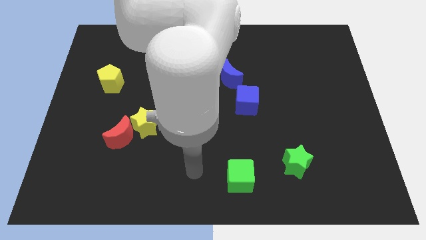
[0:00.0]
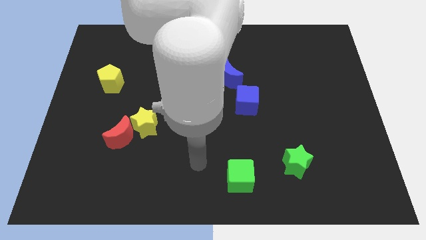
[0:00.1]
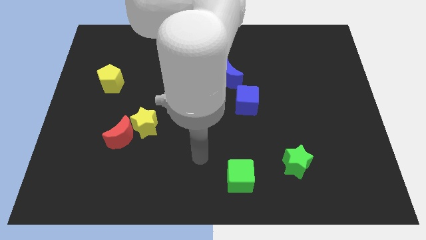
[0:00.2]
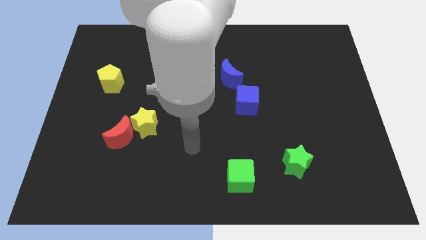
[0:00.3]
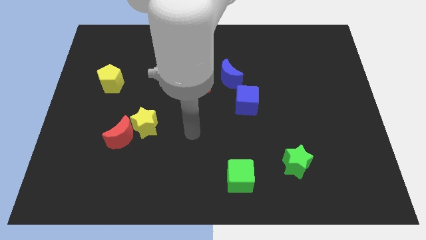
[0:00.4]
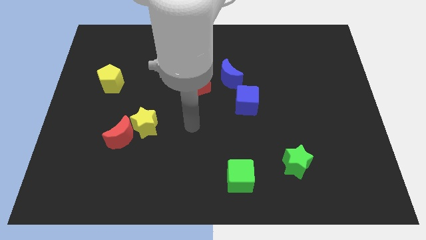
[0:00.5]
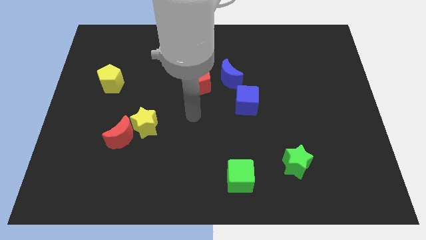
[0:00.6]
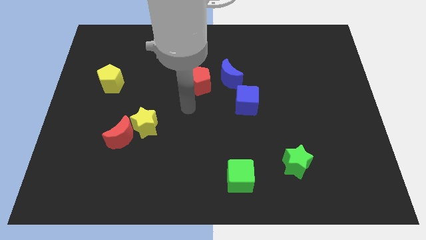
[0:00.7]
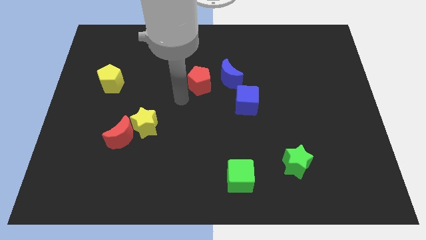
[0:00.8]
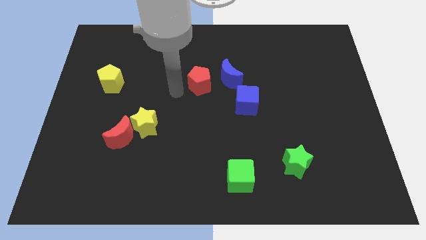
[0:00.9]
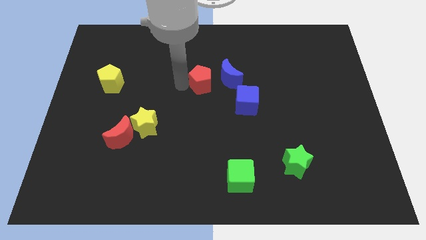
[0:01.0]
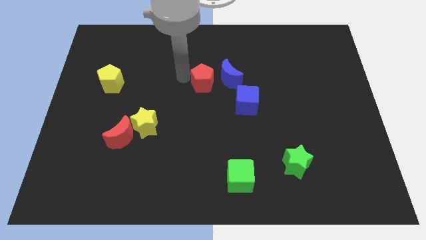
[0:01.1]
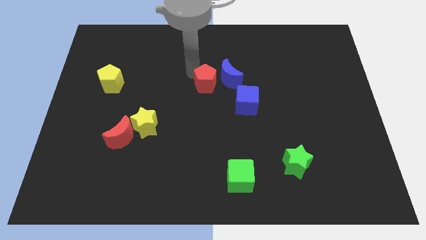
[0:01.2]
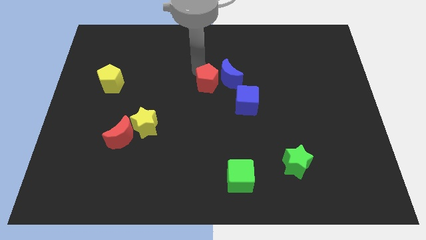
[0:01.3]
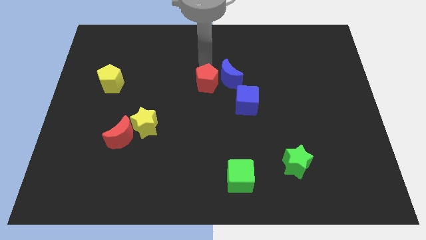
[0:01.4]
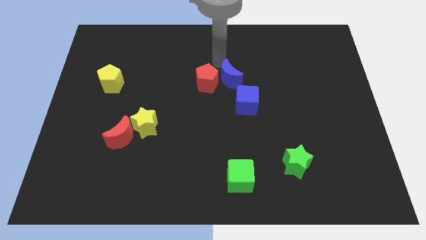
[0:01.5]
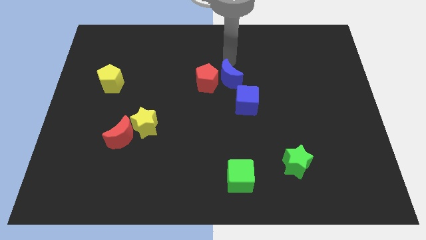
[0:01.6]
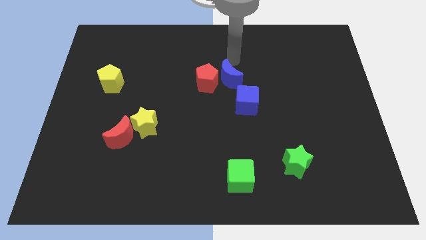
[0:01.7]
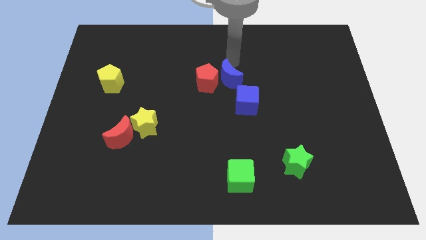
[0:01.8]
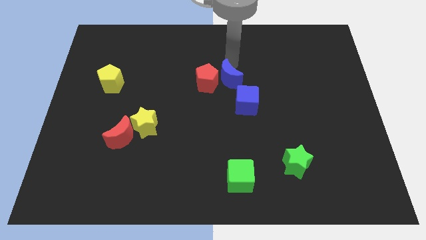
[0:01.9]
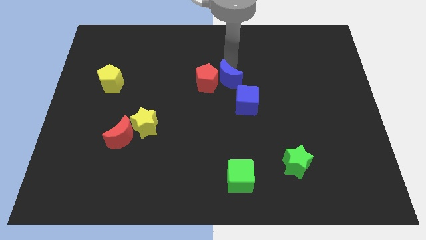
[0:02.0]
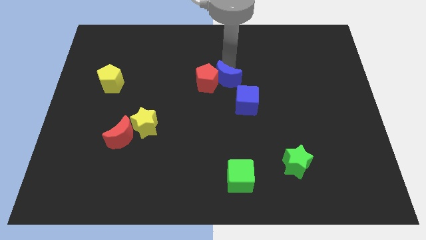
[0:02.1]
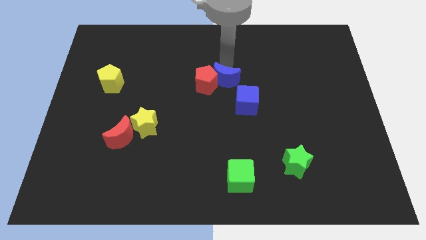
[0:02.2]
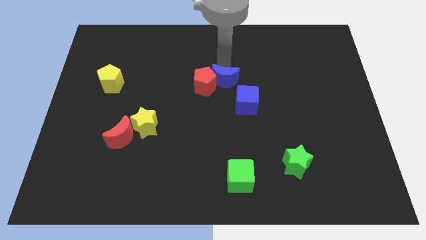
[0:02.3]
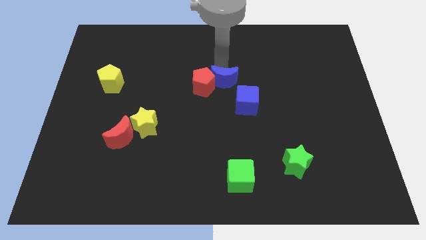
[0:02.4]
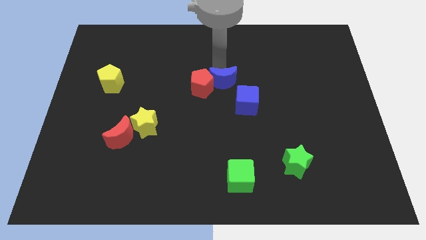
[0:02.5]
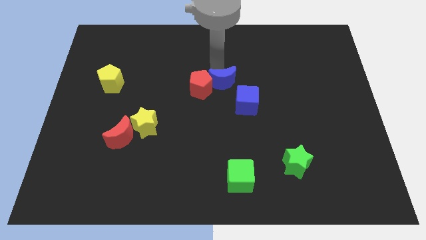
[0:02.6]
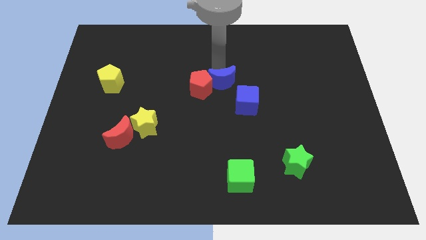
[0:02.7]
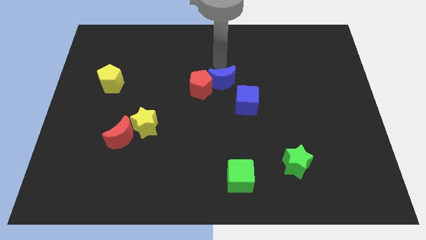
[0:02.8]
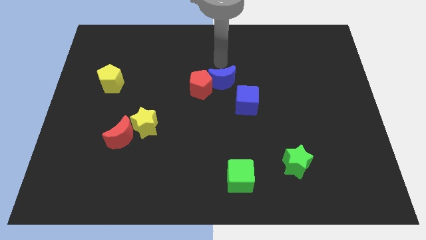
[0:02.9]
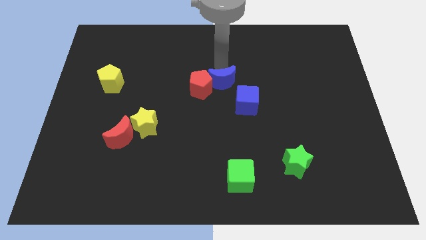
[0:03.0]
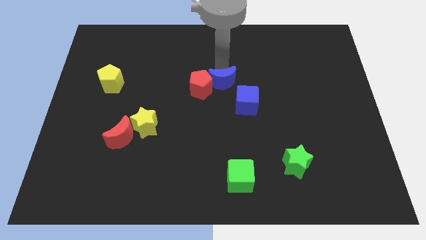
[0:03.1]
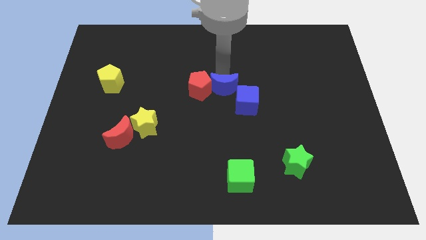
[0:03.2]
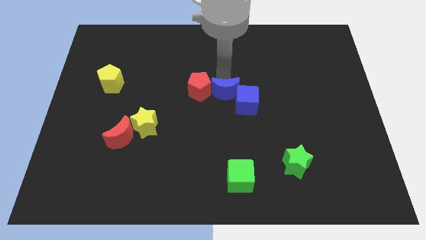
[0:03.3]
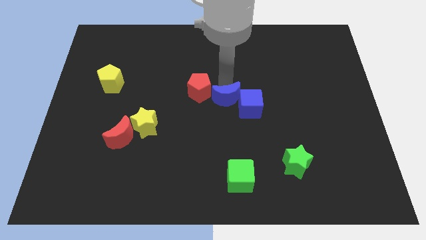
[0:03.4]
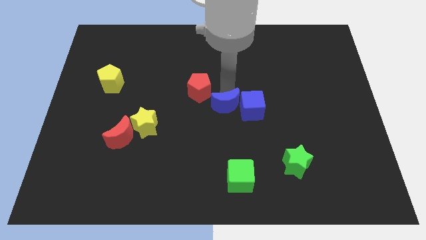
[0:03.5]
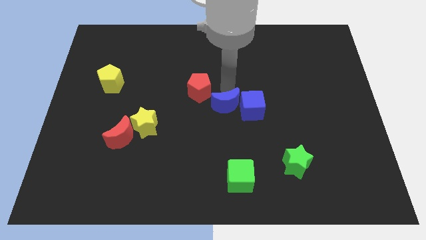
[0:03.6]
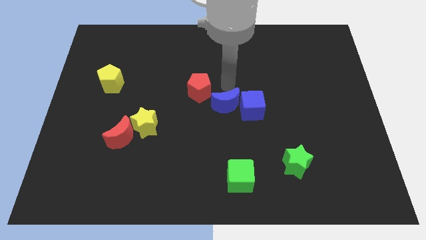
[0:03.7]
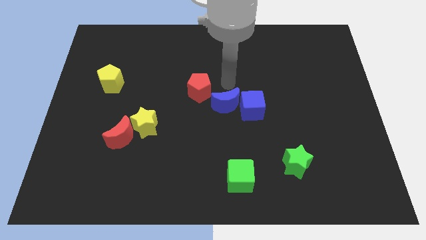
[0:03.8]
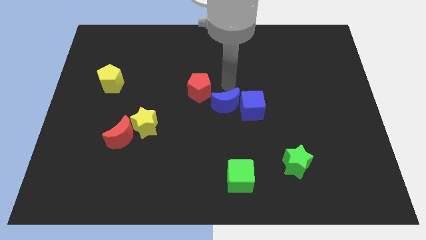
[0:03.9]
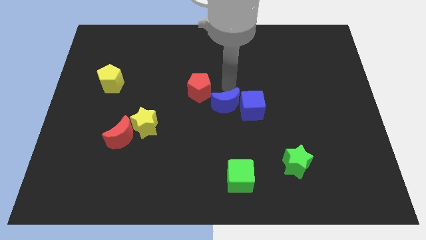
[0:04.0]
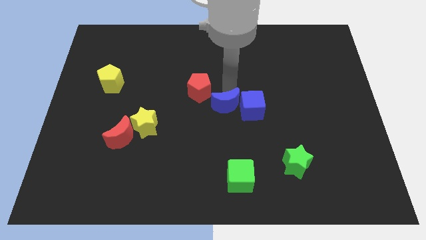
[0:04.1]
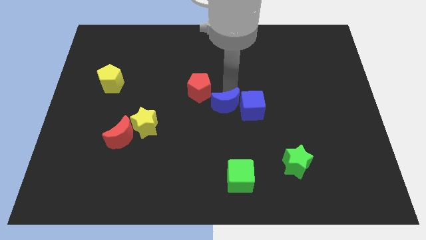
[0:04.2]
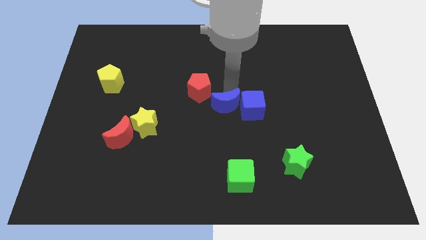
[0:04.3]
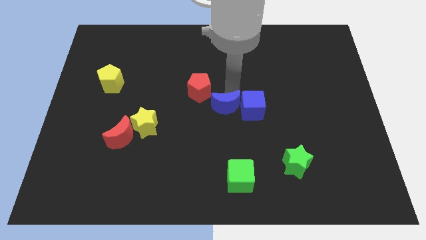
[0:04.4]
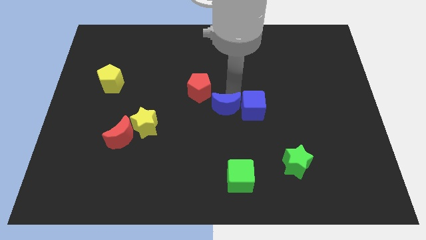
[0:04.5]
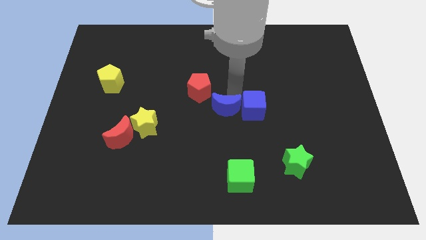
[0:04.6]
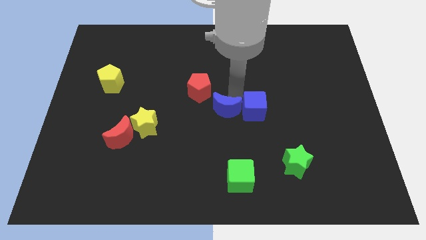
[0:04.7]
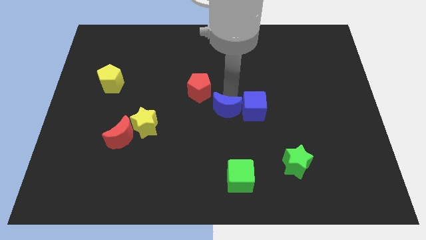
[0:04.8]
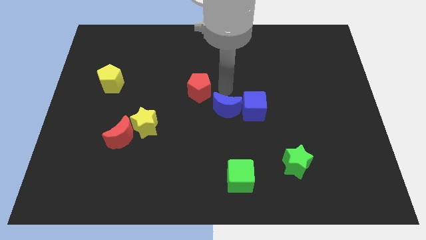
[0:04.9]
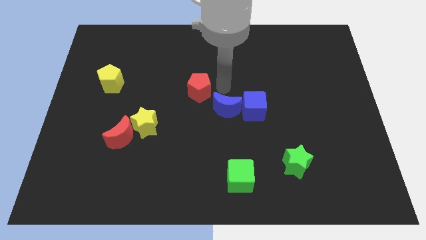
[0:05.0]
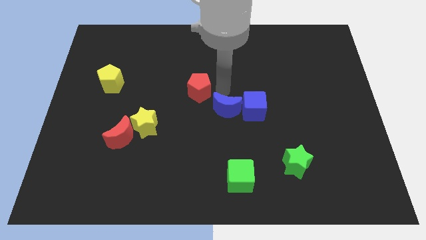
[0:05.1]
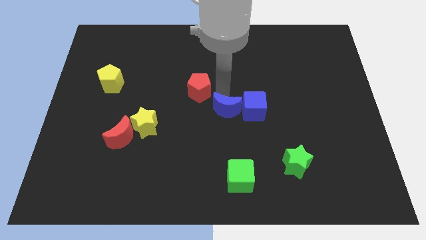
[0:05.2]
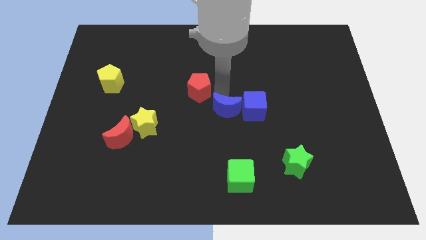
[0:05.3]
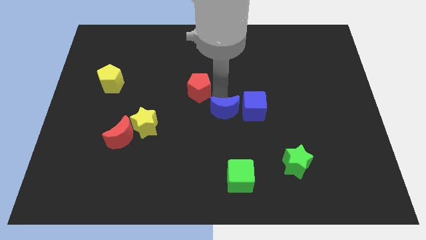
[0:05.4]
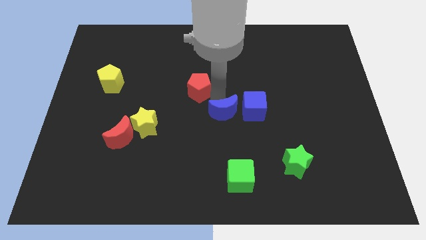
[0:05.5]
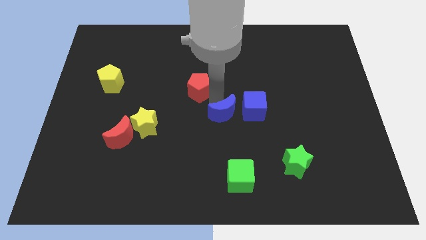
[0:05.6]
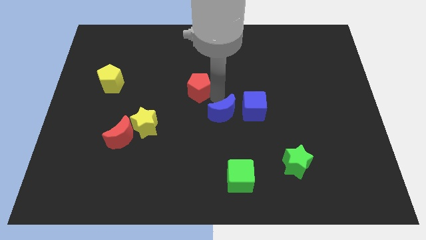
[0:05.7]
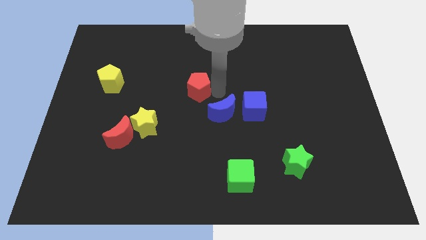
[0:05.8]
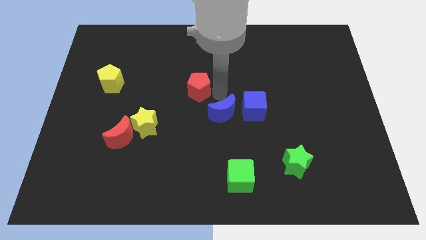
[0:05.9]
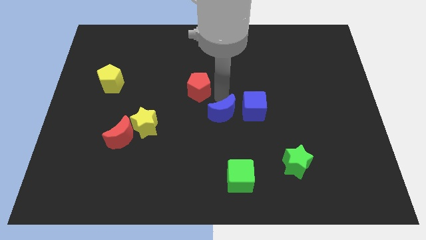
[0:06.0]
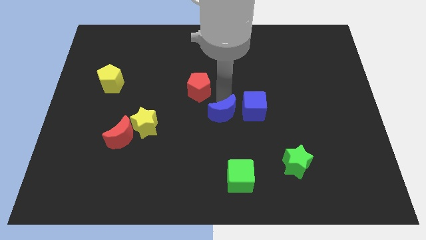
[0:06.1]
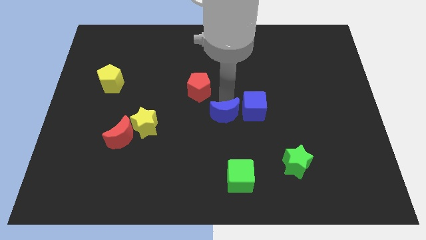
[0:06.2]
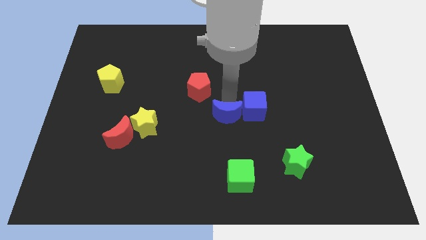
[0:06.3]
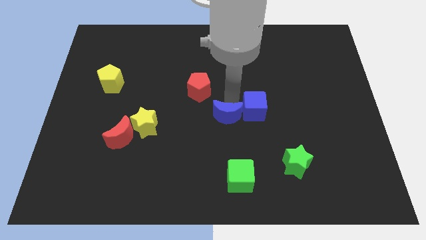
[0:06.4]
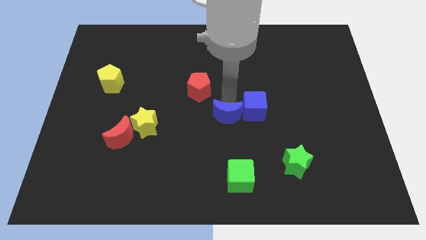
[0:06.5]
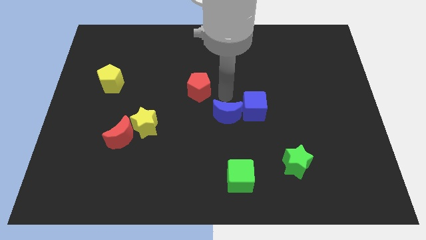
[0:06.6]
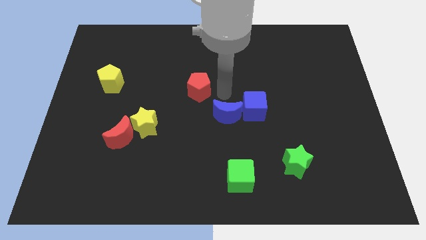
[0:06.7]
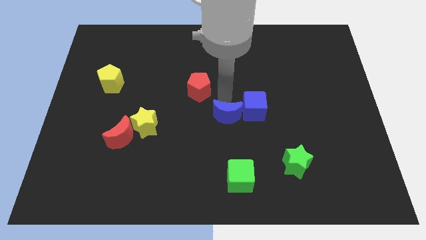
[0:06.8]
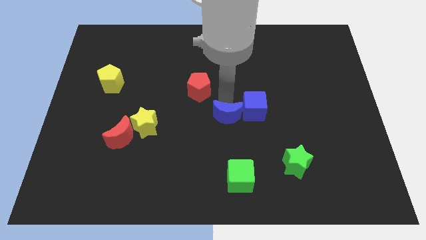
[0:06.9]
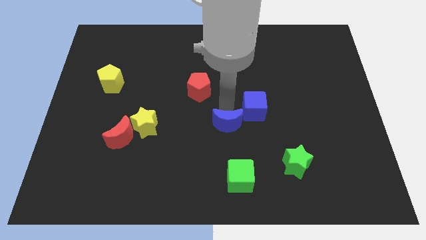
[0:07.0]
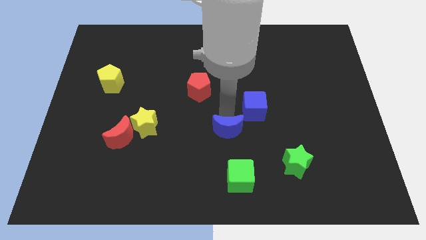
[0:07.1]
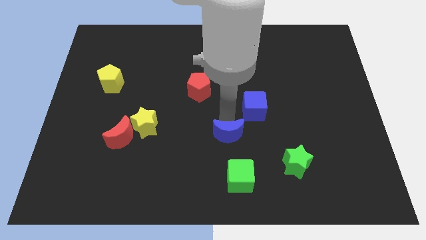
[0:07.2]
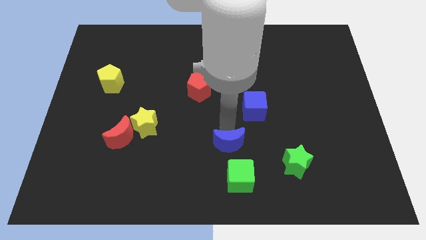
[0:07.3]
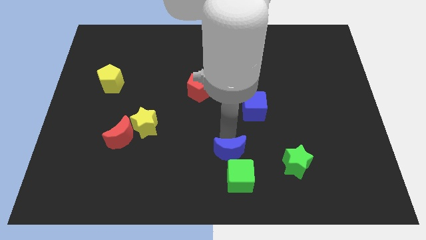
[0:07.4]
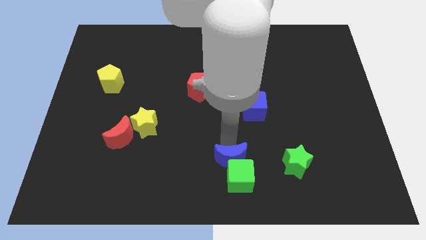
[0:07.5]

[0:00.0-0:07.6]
put the blue moon to the green cube
